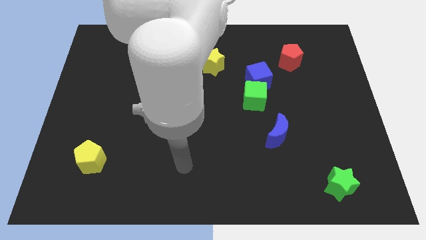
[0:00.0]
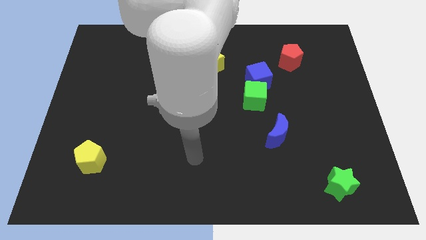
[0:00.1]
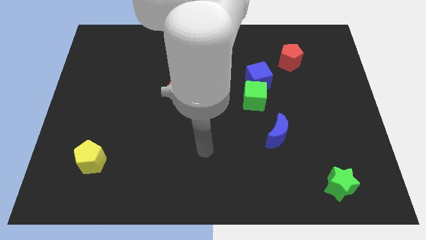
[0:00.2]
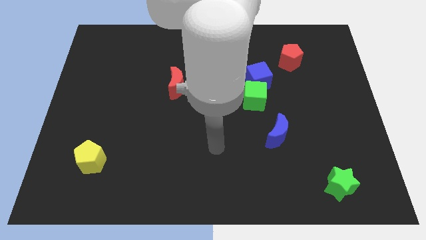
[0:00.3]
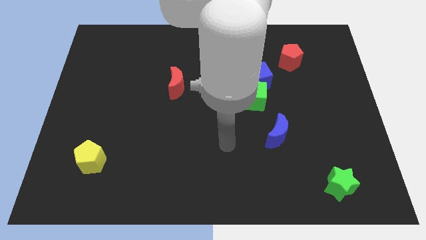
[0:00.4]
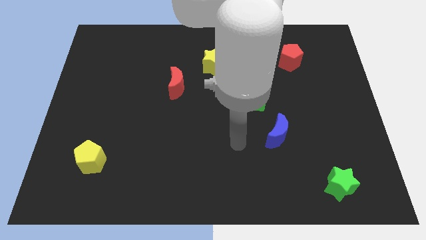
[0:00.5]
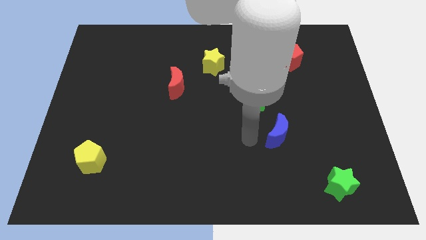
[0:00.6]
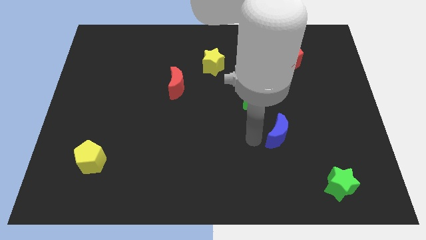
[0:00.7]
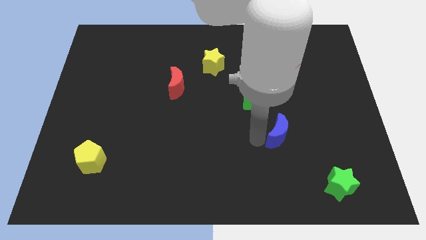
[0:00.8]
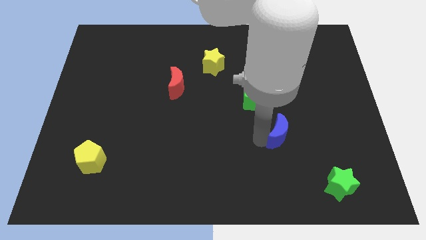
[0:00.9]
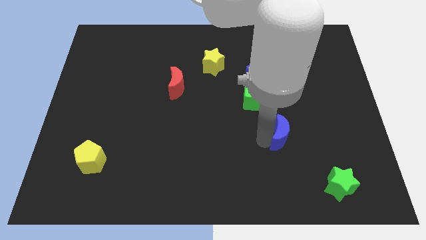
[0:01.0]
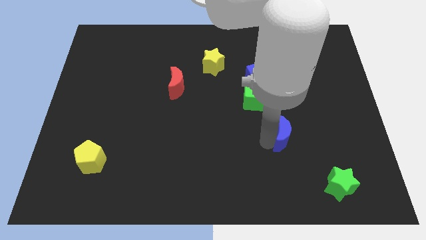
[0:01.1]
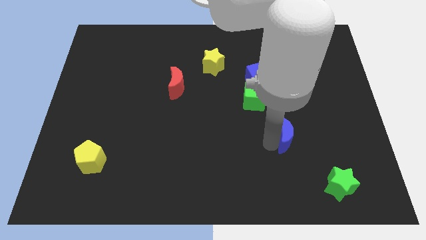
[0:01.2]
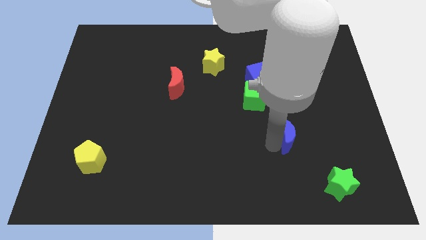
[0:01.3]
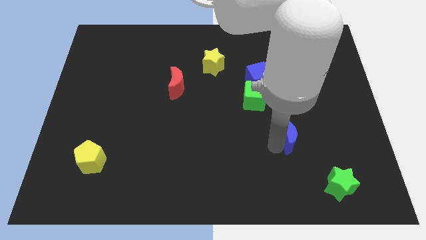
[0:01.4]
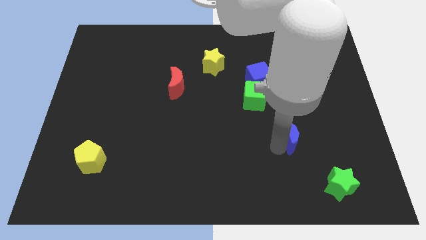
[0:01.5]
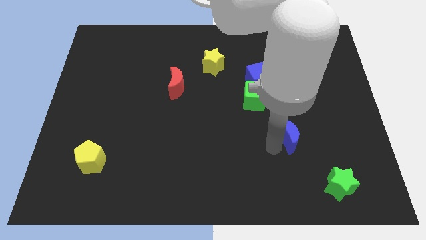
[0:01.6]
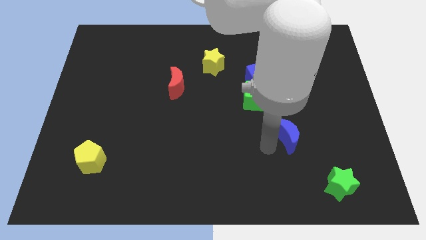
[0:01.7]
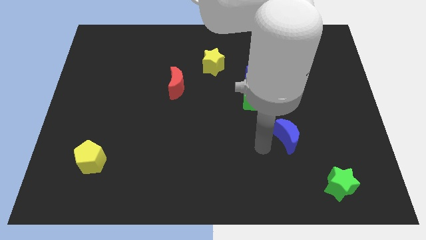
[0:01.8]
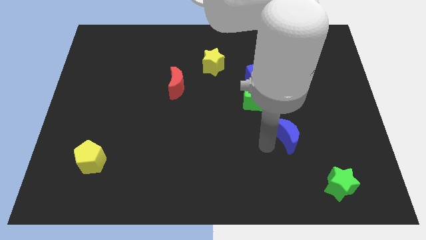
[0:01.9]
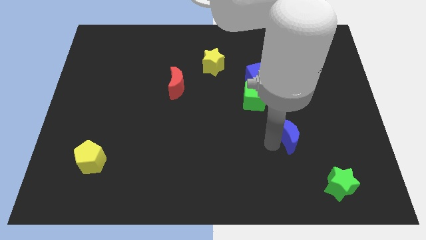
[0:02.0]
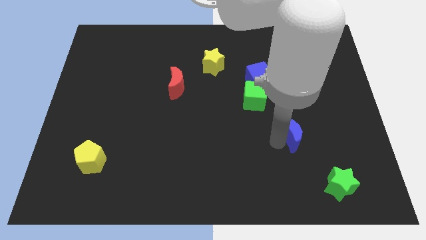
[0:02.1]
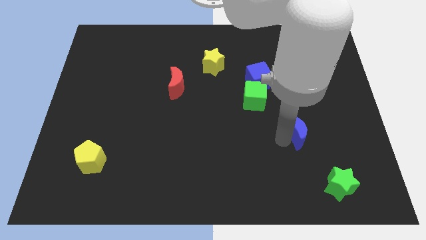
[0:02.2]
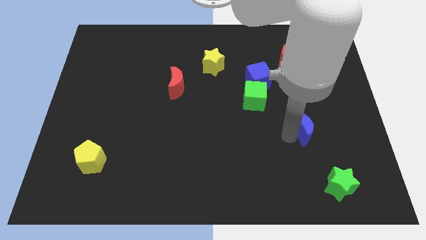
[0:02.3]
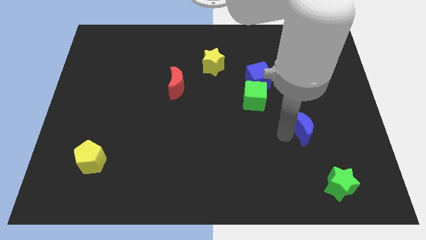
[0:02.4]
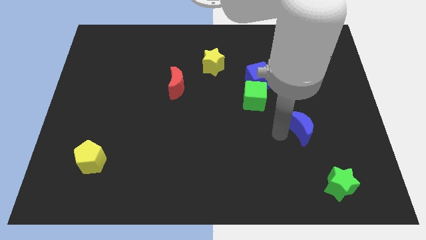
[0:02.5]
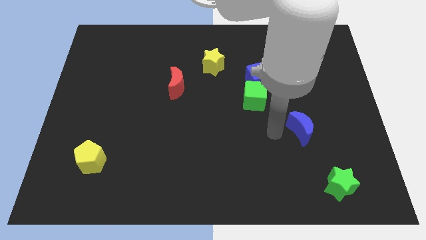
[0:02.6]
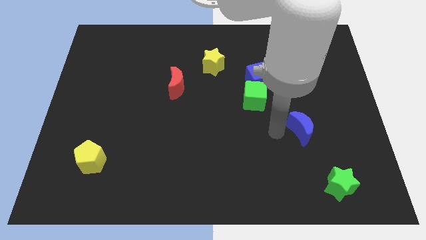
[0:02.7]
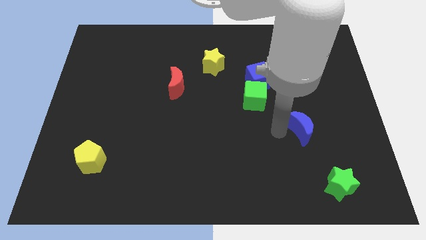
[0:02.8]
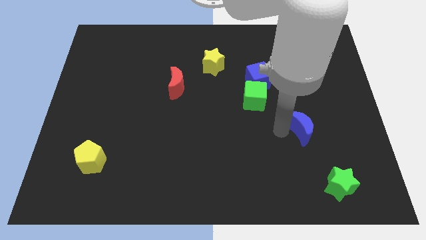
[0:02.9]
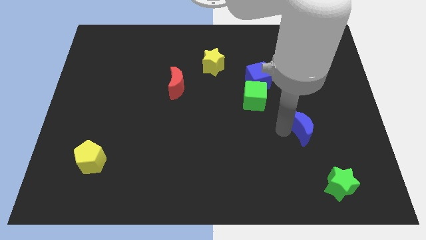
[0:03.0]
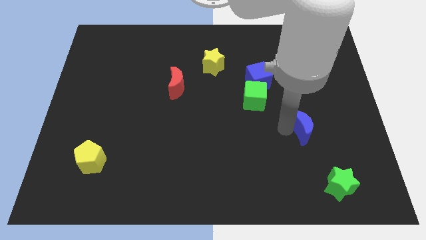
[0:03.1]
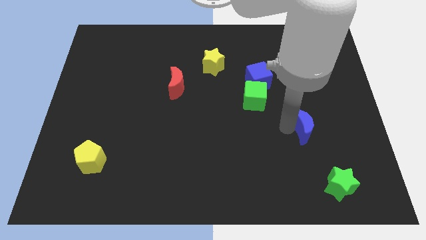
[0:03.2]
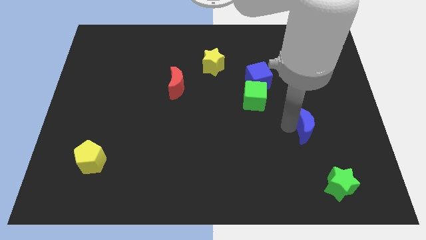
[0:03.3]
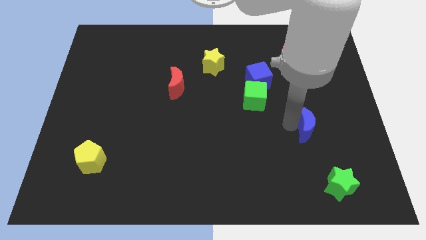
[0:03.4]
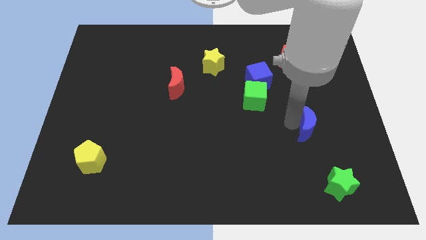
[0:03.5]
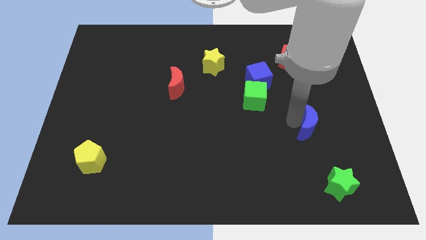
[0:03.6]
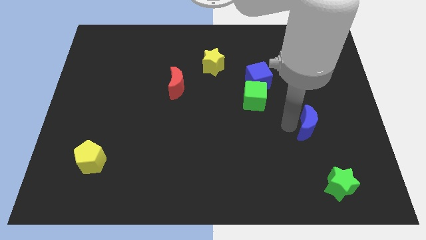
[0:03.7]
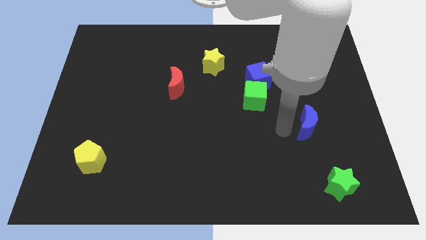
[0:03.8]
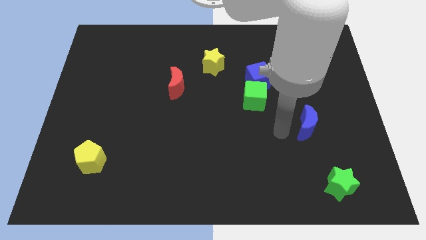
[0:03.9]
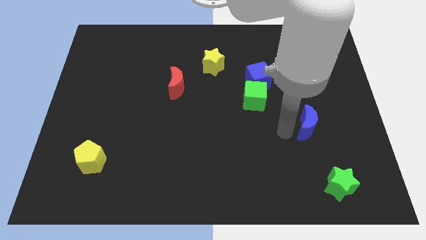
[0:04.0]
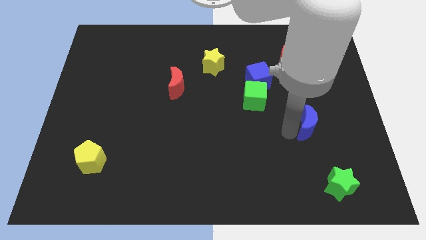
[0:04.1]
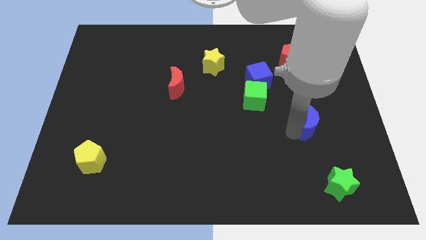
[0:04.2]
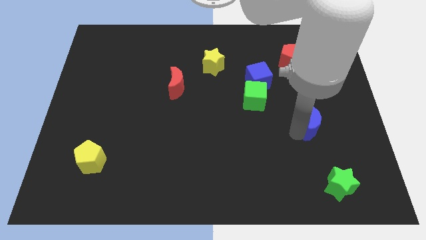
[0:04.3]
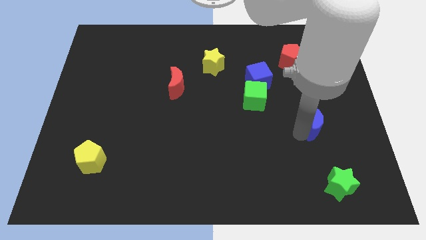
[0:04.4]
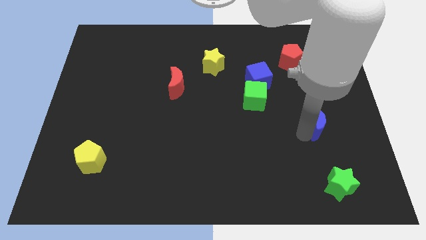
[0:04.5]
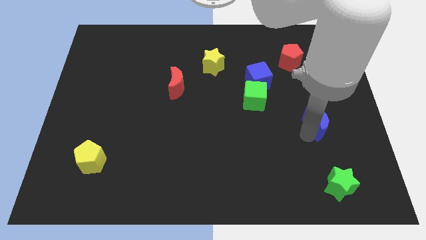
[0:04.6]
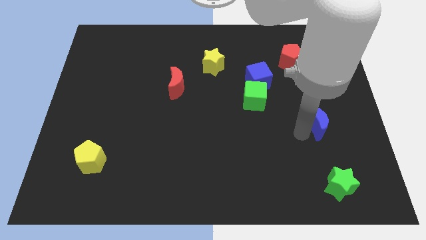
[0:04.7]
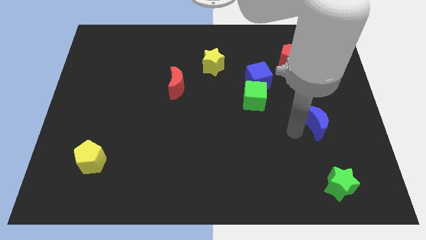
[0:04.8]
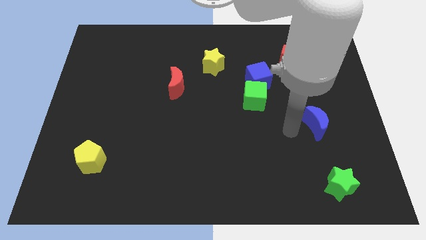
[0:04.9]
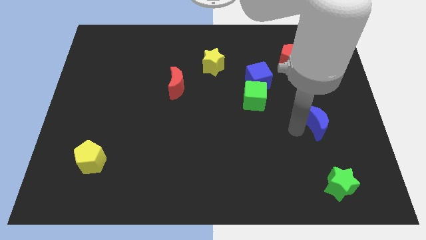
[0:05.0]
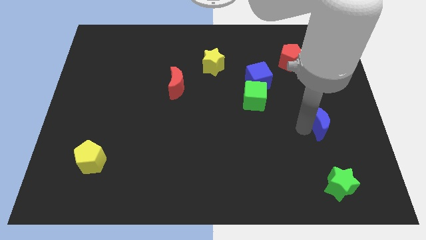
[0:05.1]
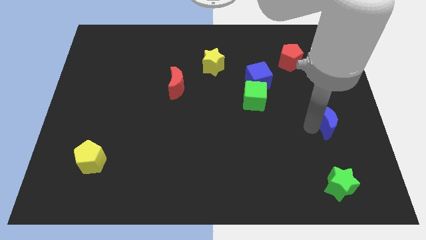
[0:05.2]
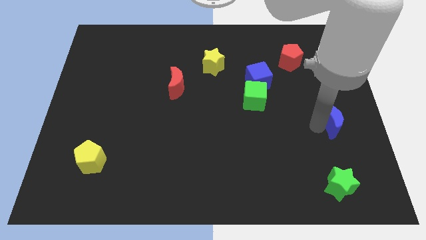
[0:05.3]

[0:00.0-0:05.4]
push the blue moon to the center right

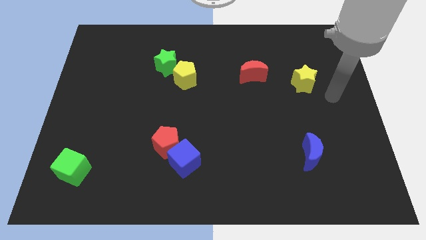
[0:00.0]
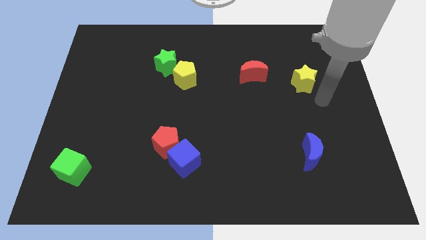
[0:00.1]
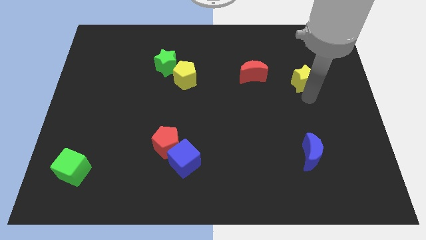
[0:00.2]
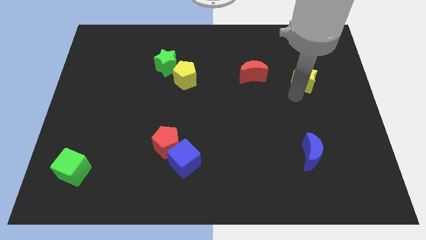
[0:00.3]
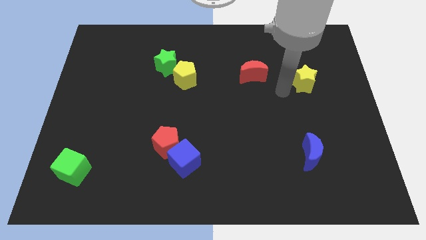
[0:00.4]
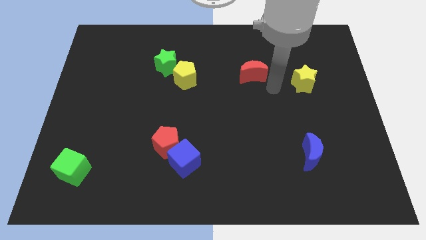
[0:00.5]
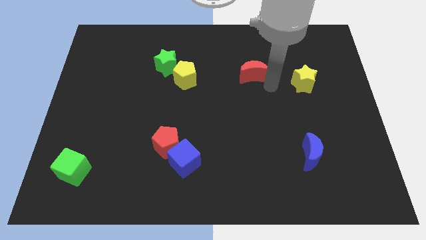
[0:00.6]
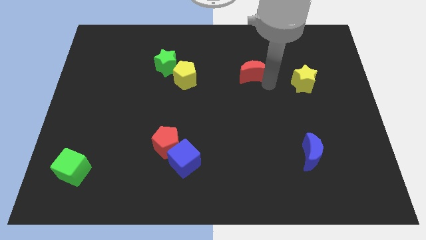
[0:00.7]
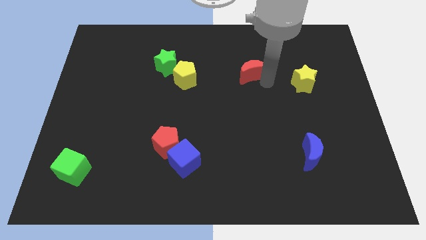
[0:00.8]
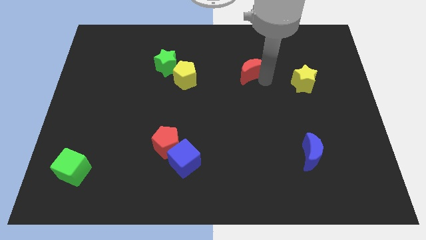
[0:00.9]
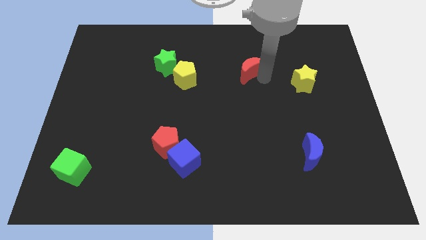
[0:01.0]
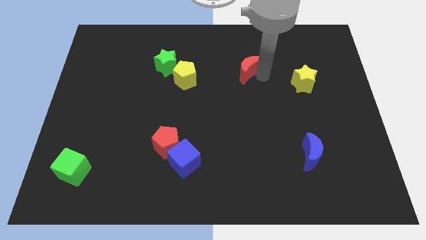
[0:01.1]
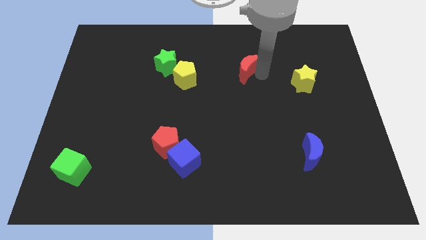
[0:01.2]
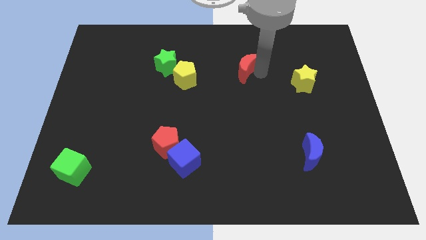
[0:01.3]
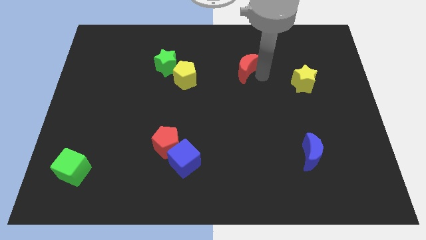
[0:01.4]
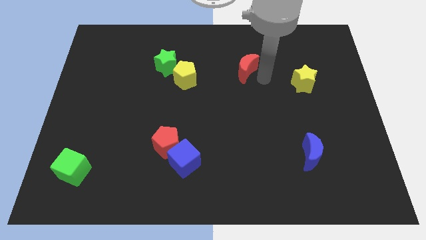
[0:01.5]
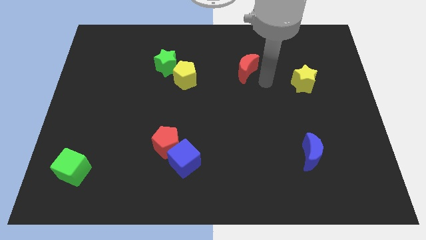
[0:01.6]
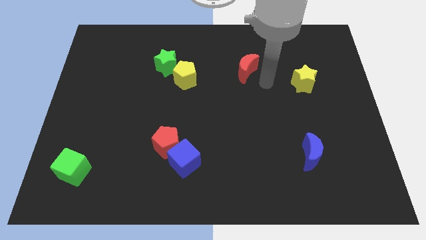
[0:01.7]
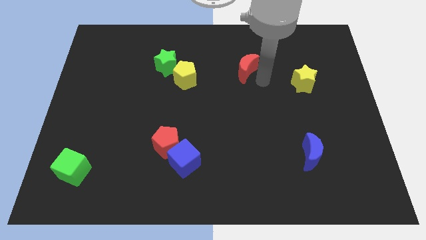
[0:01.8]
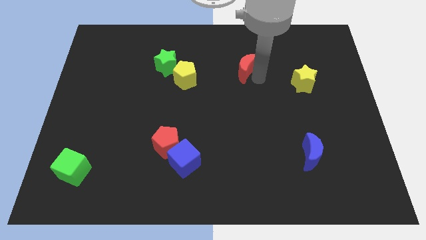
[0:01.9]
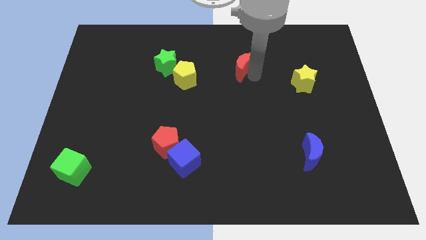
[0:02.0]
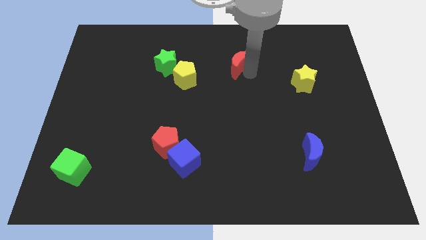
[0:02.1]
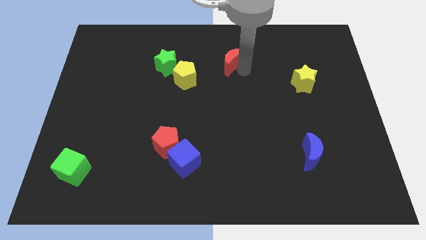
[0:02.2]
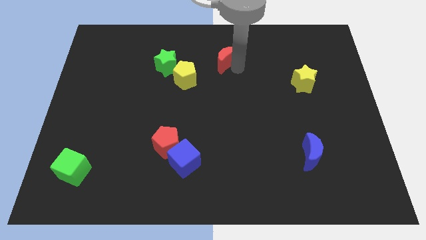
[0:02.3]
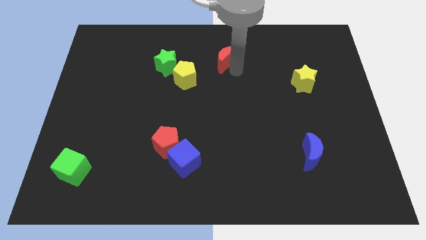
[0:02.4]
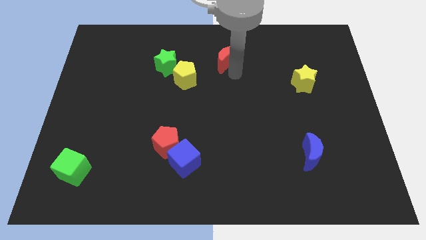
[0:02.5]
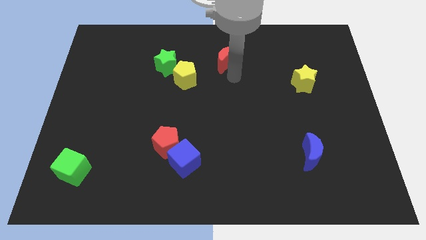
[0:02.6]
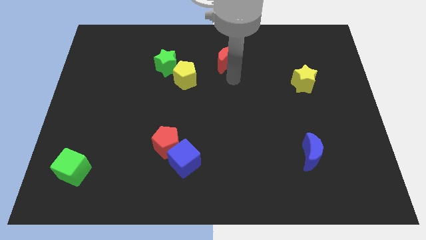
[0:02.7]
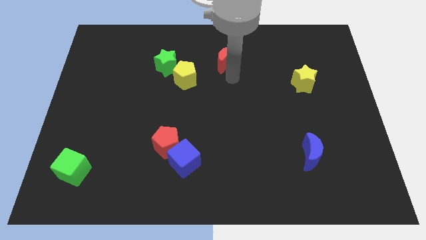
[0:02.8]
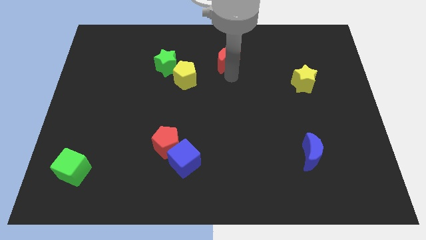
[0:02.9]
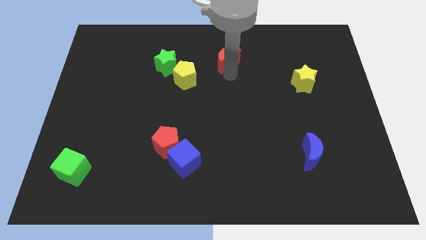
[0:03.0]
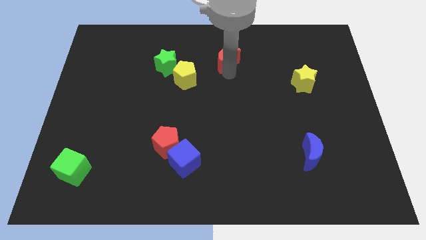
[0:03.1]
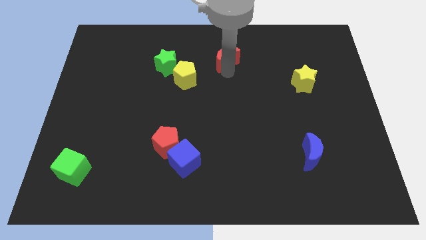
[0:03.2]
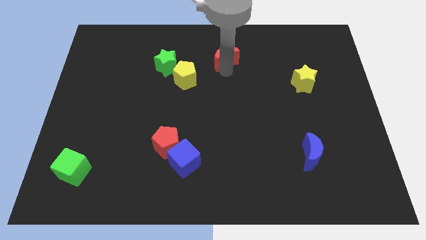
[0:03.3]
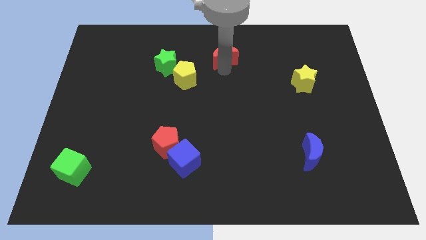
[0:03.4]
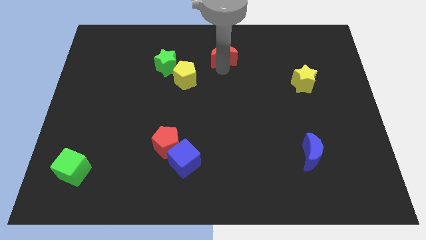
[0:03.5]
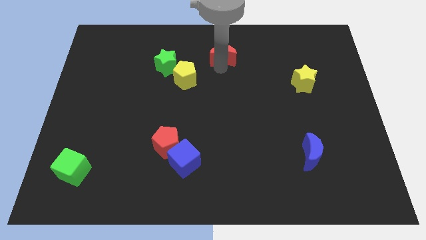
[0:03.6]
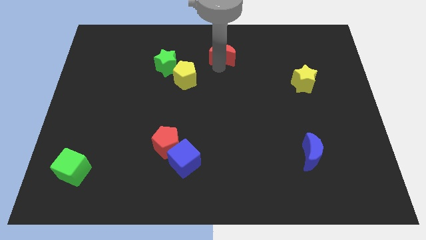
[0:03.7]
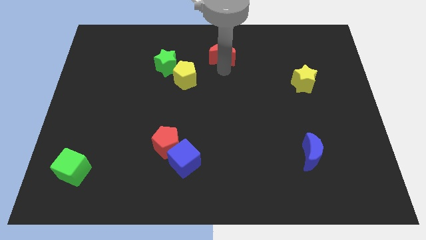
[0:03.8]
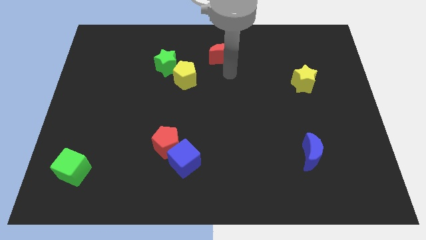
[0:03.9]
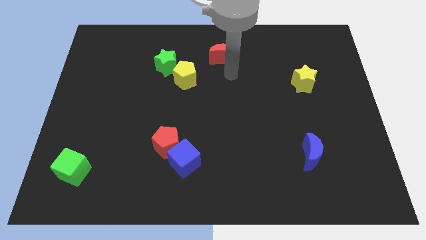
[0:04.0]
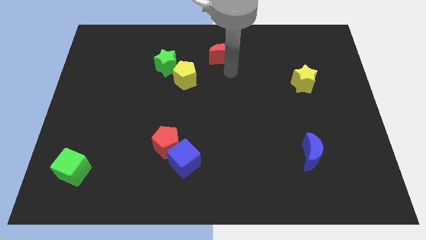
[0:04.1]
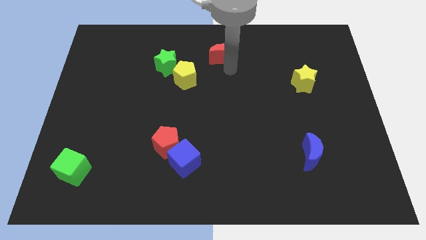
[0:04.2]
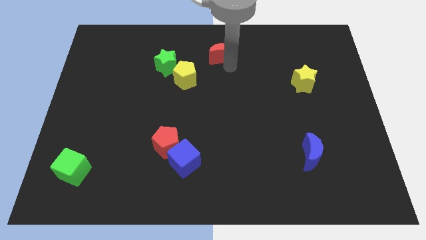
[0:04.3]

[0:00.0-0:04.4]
push the red moon to the towards your base
